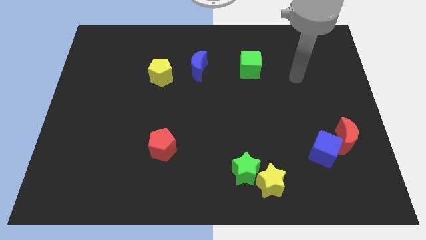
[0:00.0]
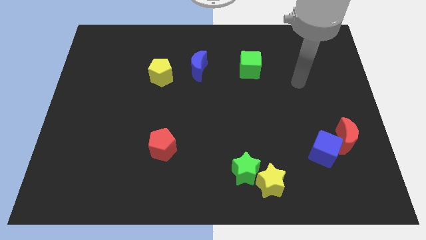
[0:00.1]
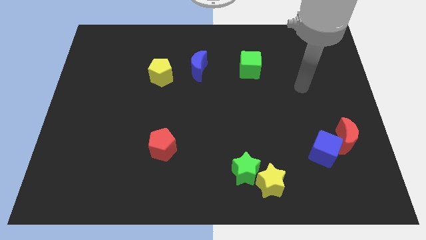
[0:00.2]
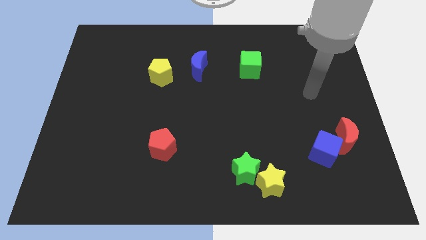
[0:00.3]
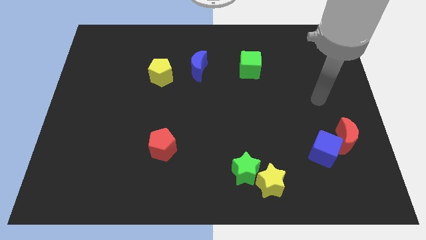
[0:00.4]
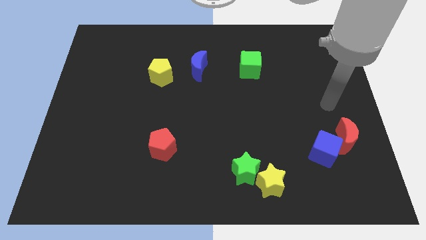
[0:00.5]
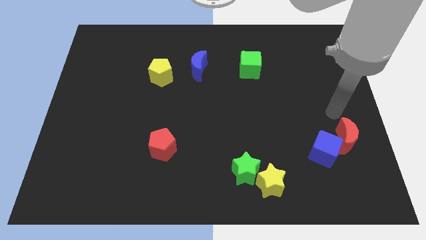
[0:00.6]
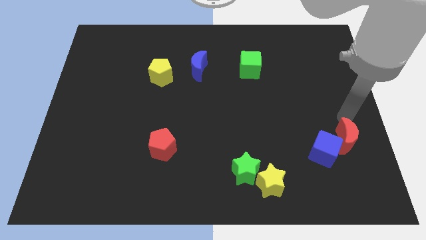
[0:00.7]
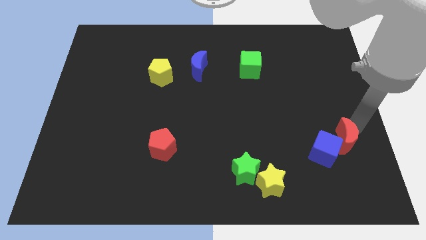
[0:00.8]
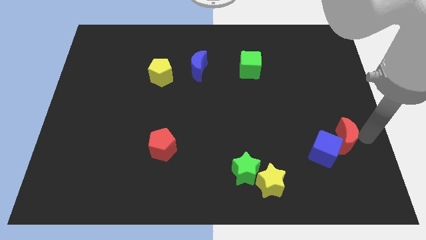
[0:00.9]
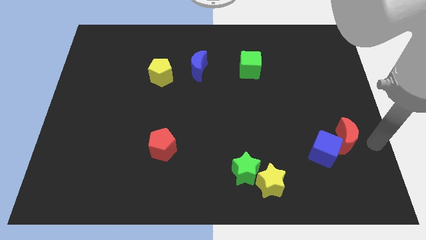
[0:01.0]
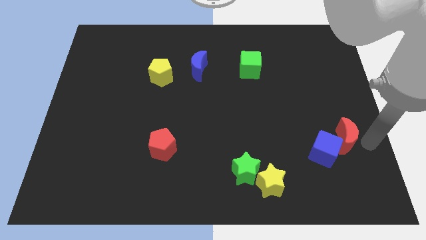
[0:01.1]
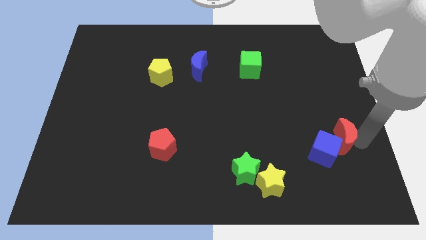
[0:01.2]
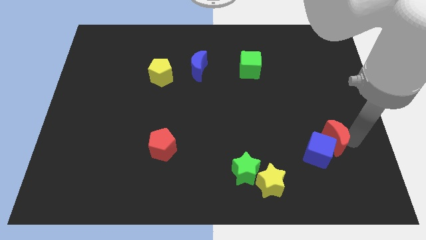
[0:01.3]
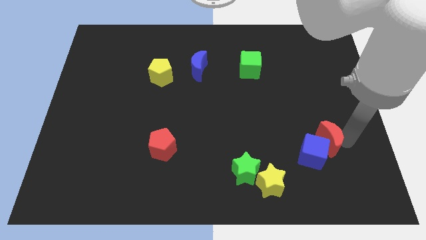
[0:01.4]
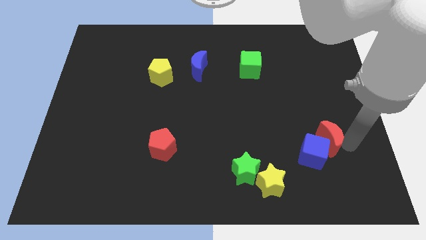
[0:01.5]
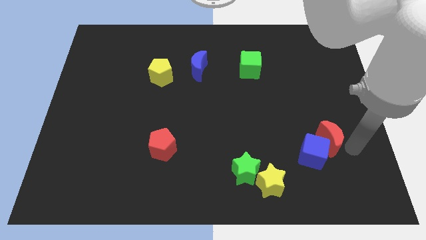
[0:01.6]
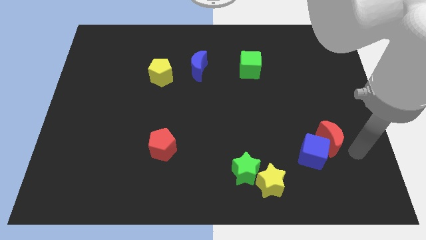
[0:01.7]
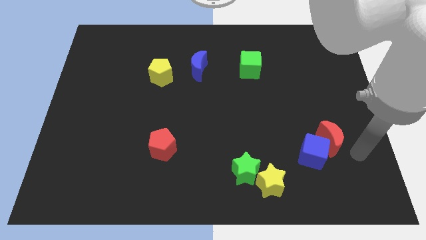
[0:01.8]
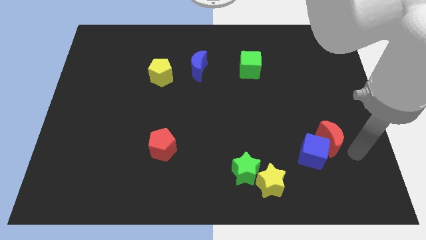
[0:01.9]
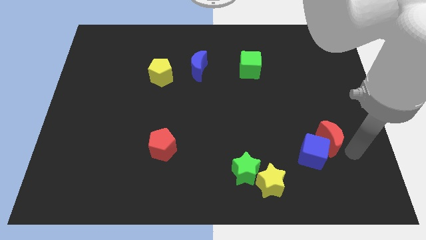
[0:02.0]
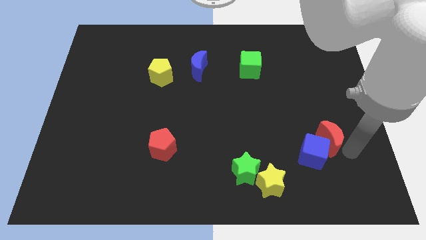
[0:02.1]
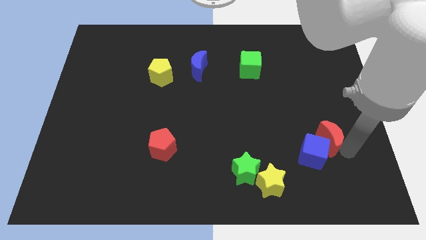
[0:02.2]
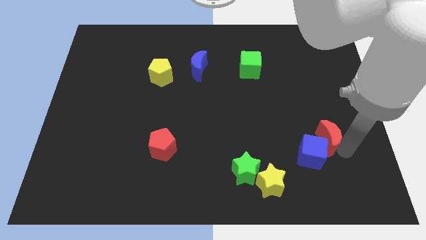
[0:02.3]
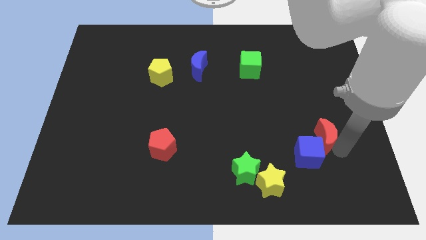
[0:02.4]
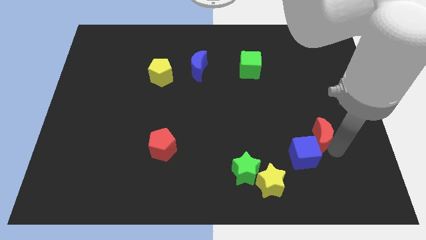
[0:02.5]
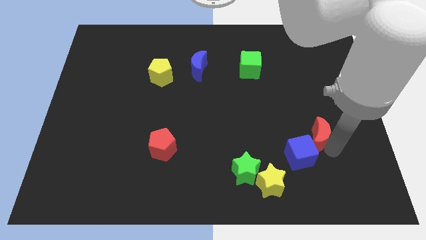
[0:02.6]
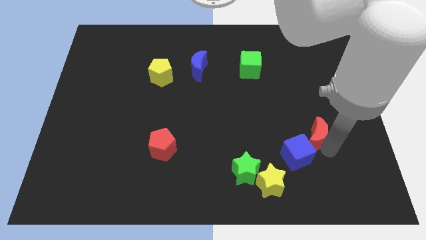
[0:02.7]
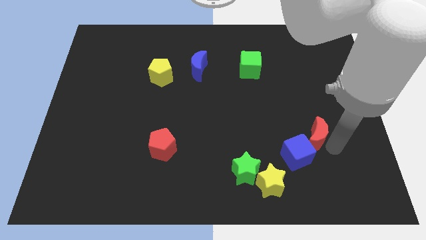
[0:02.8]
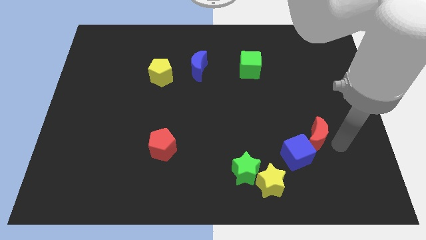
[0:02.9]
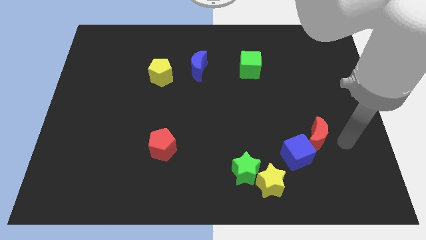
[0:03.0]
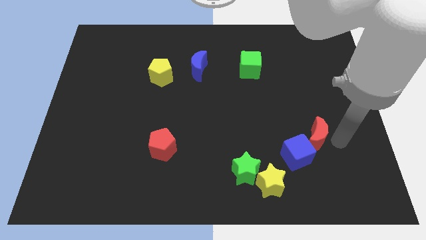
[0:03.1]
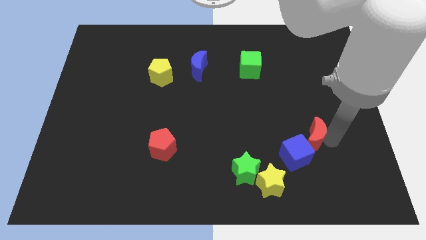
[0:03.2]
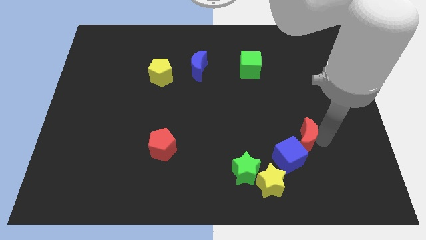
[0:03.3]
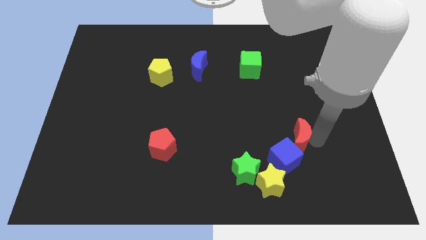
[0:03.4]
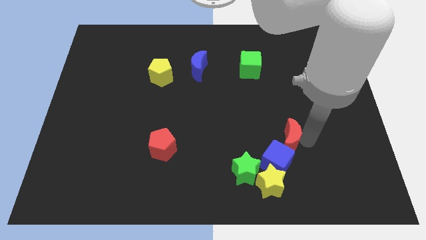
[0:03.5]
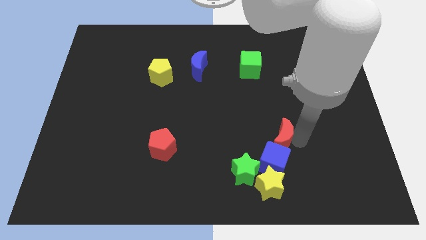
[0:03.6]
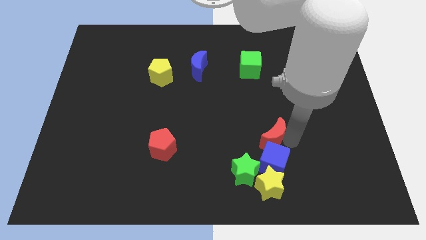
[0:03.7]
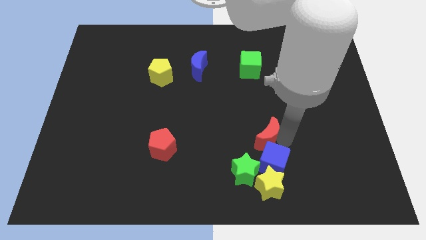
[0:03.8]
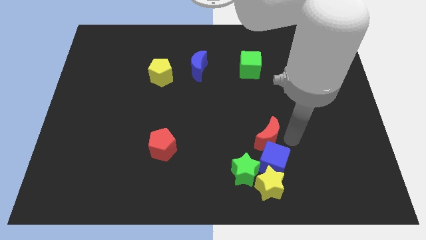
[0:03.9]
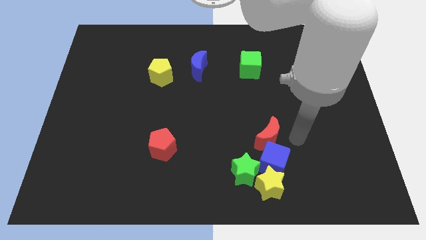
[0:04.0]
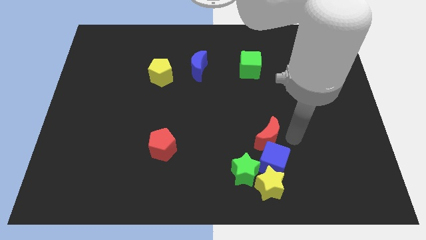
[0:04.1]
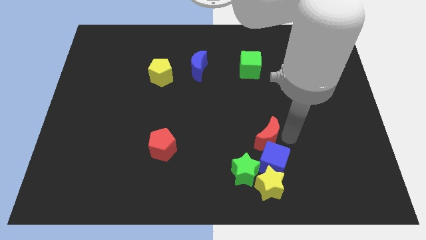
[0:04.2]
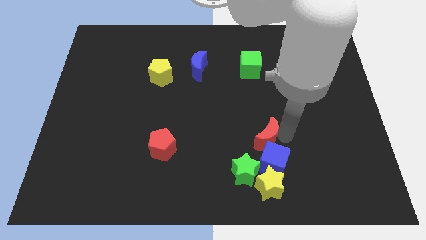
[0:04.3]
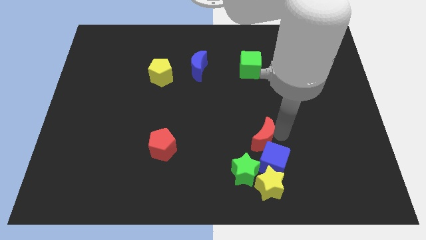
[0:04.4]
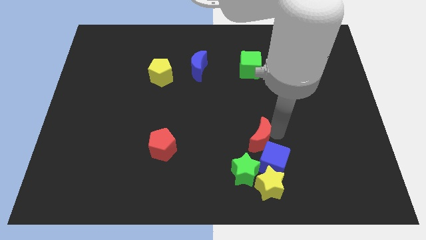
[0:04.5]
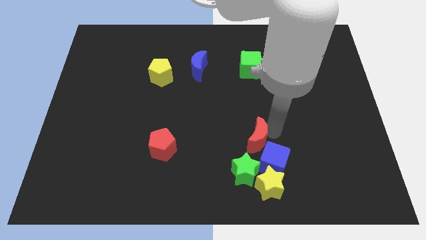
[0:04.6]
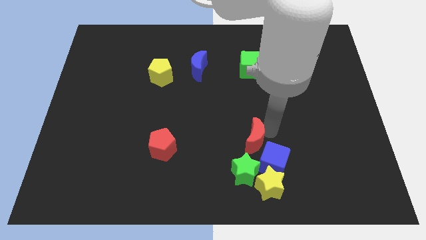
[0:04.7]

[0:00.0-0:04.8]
push the red moon left

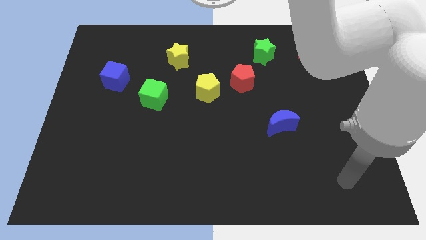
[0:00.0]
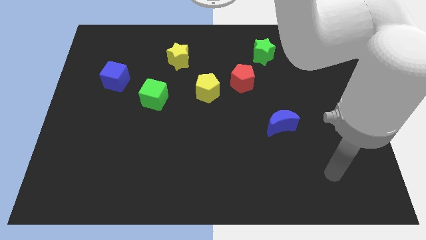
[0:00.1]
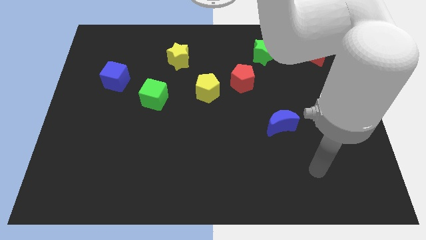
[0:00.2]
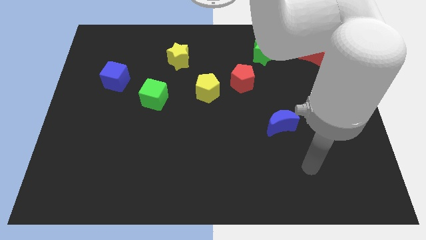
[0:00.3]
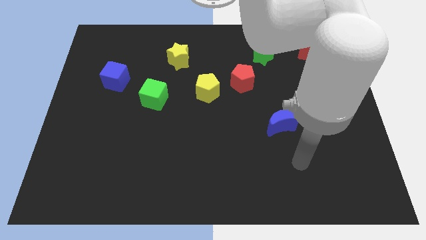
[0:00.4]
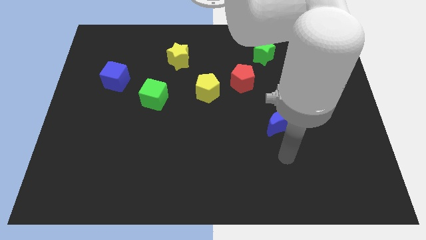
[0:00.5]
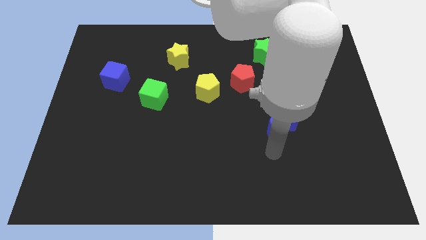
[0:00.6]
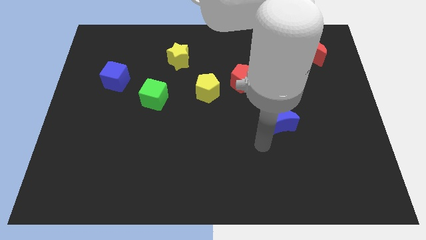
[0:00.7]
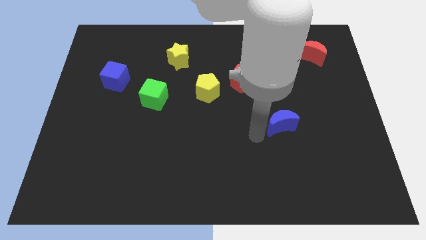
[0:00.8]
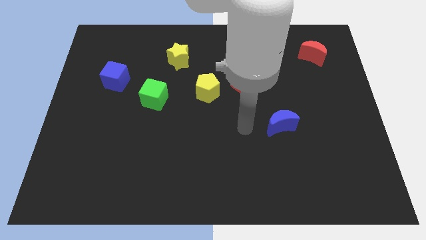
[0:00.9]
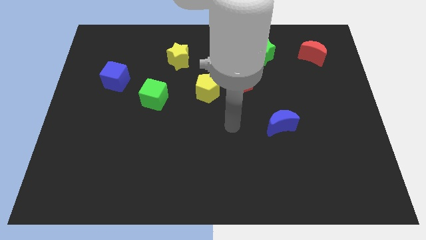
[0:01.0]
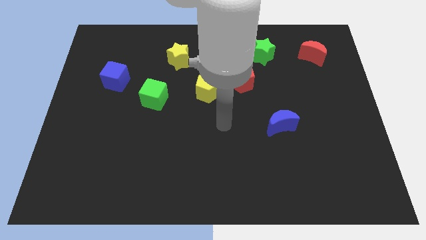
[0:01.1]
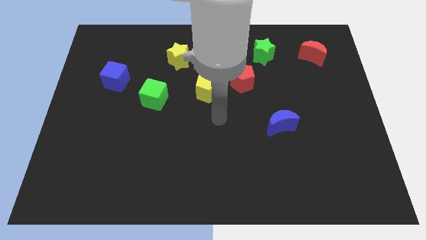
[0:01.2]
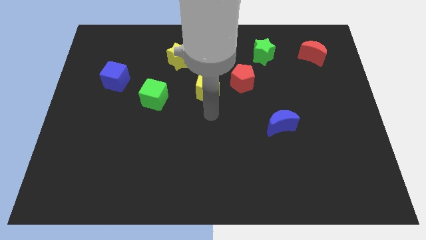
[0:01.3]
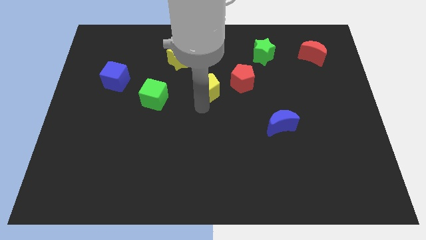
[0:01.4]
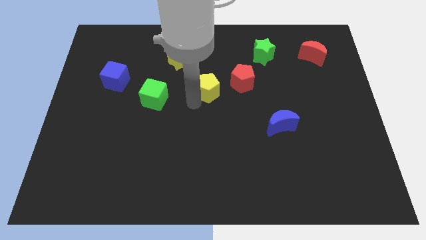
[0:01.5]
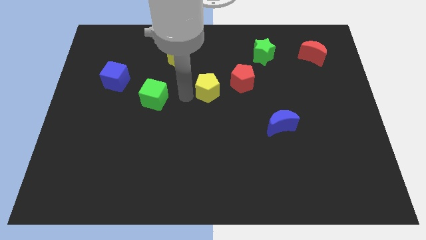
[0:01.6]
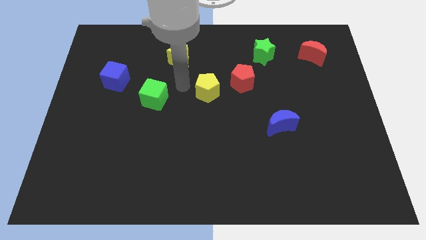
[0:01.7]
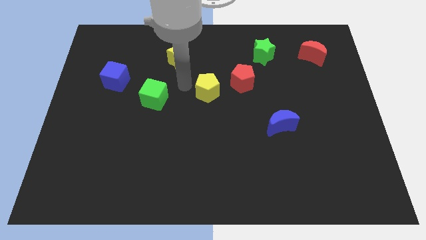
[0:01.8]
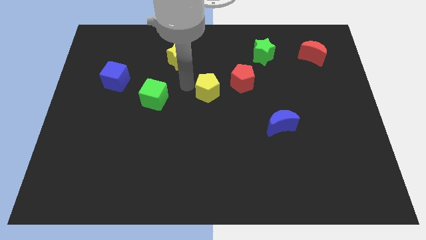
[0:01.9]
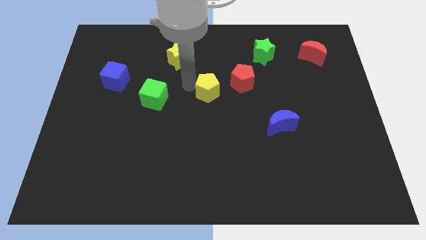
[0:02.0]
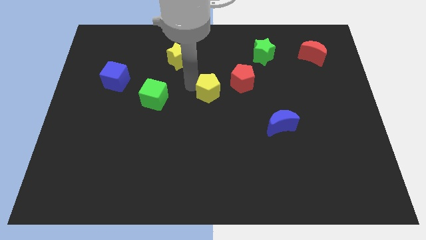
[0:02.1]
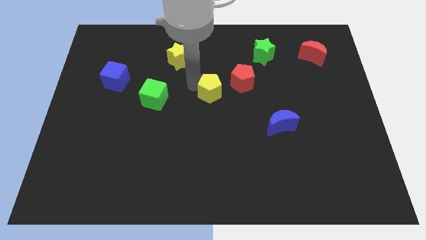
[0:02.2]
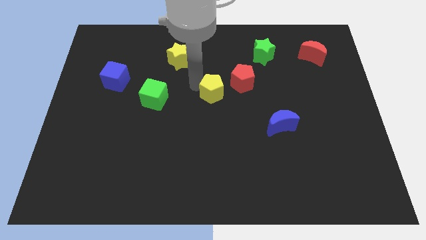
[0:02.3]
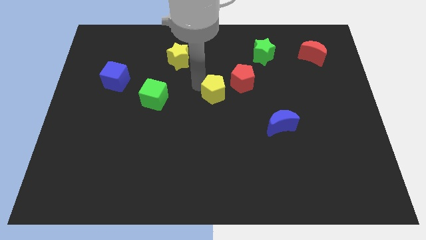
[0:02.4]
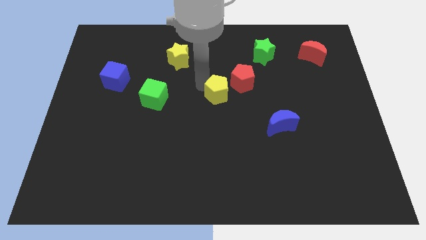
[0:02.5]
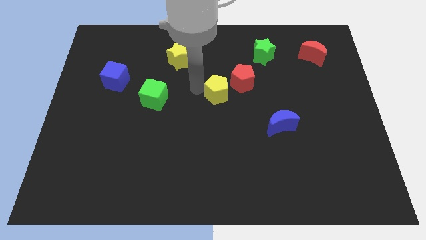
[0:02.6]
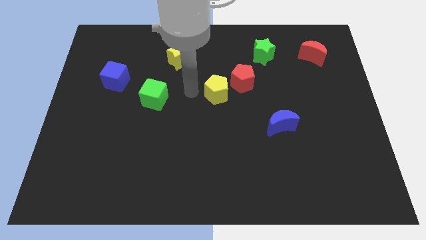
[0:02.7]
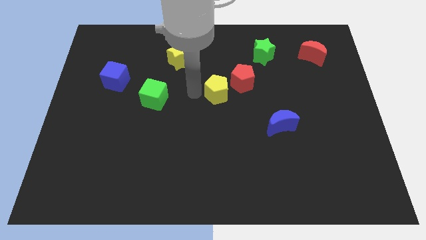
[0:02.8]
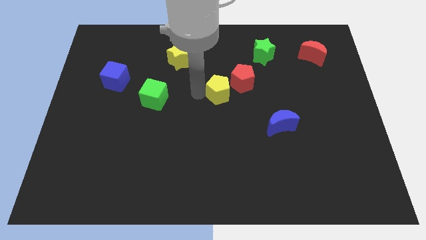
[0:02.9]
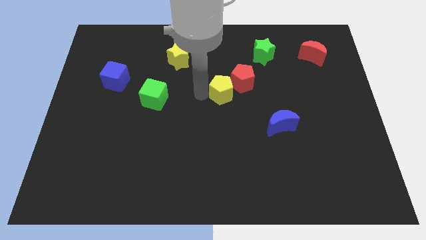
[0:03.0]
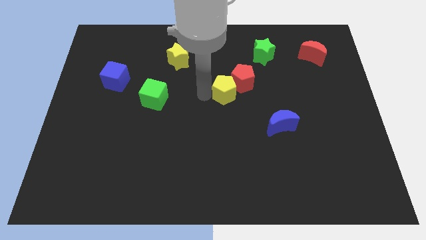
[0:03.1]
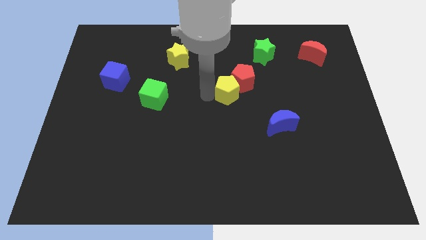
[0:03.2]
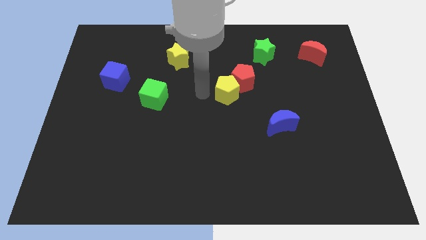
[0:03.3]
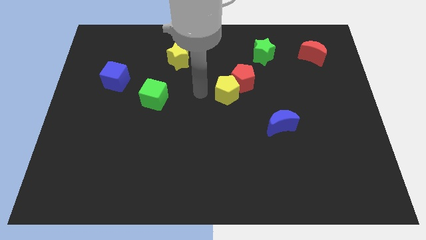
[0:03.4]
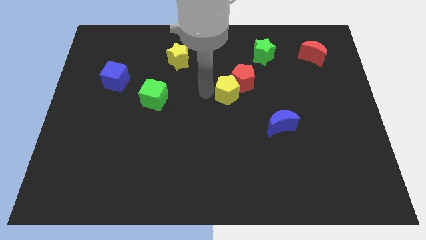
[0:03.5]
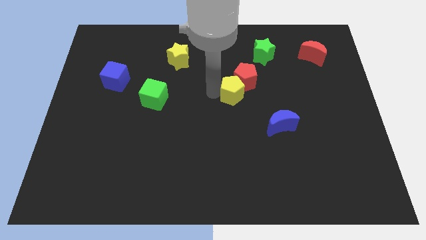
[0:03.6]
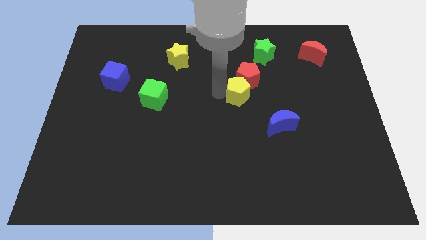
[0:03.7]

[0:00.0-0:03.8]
slightly move the yellow pentagon right
